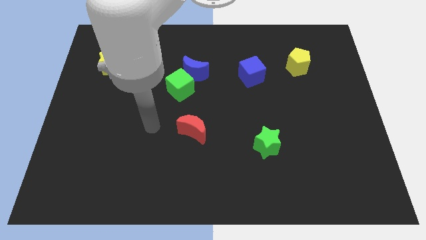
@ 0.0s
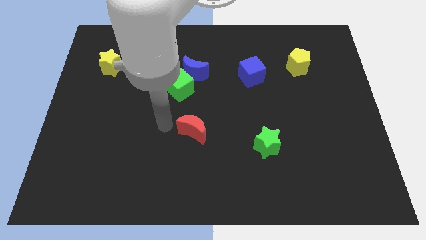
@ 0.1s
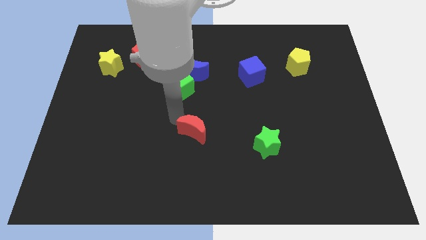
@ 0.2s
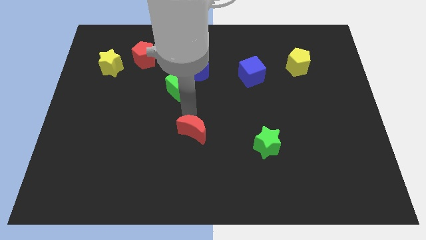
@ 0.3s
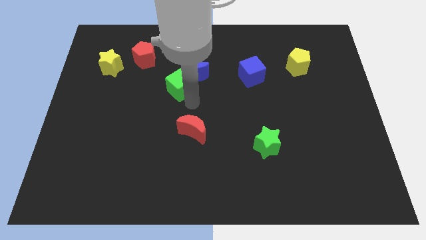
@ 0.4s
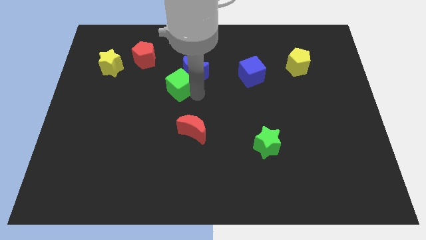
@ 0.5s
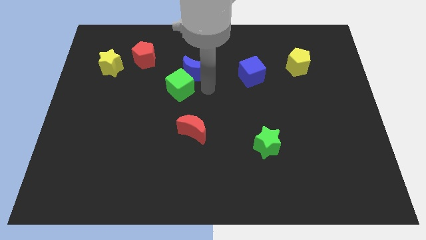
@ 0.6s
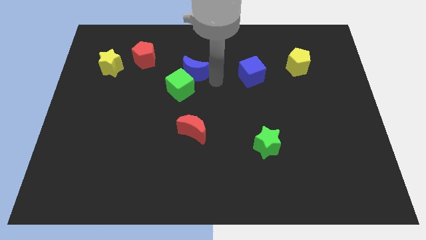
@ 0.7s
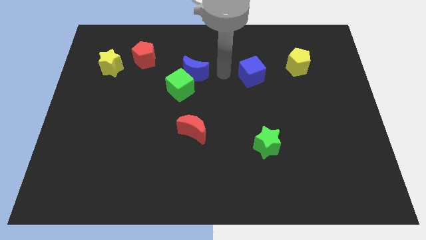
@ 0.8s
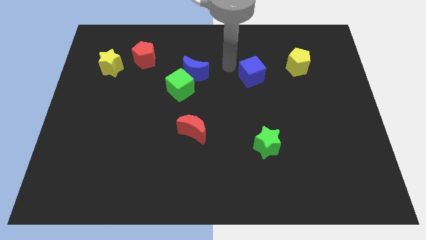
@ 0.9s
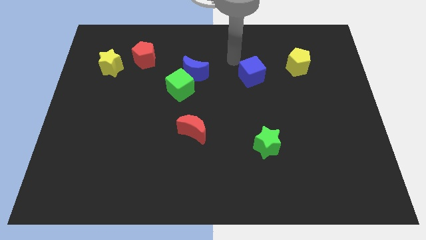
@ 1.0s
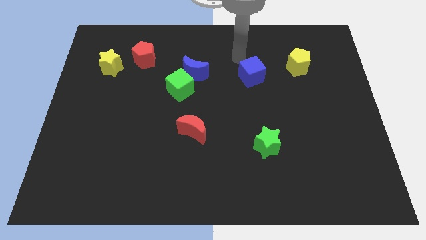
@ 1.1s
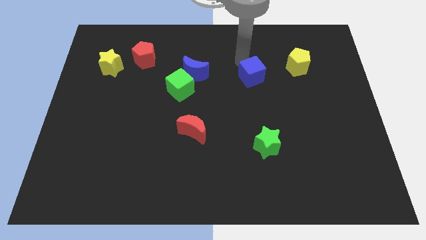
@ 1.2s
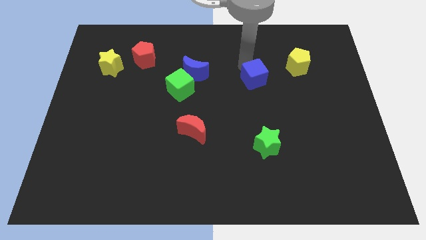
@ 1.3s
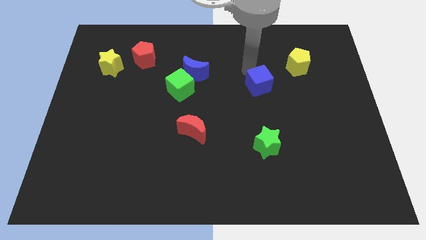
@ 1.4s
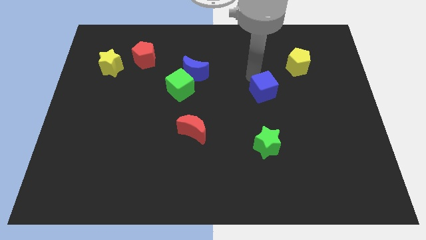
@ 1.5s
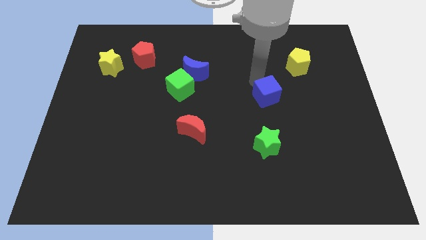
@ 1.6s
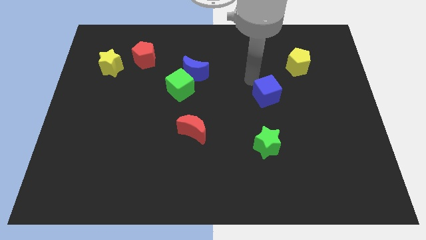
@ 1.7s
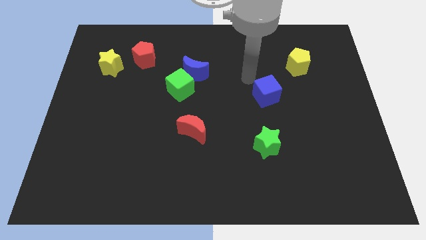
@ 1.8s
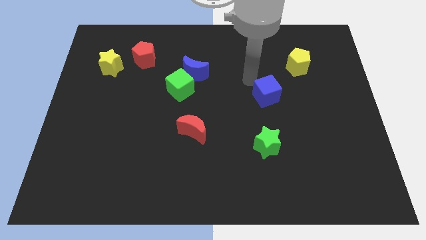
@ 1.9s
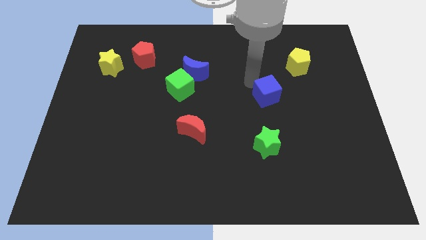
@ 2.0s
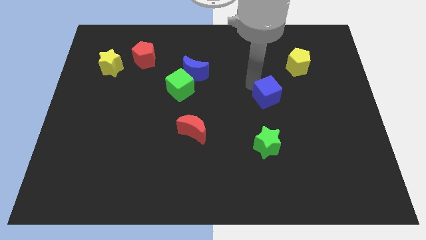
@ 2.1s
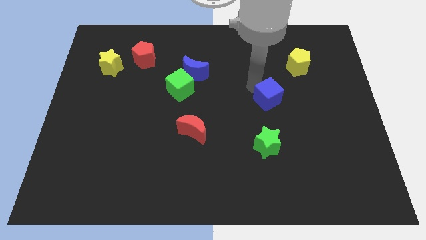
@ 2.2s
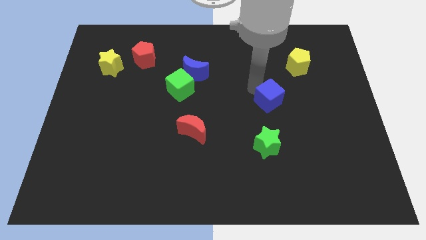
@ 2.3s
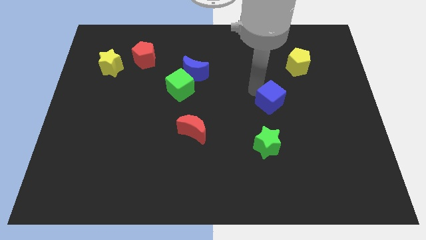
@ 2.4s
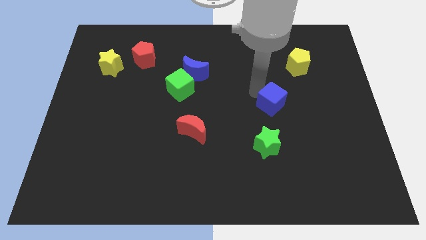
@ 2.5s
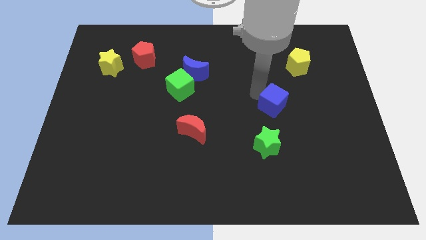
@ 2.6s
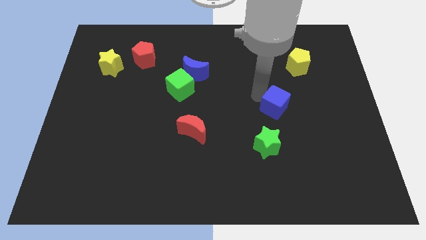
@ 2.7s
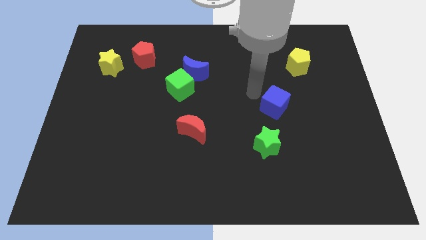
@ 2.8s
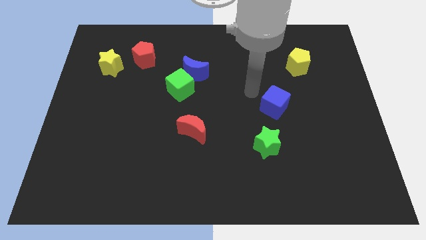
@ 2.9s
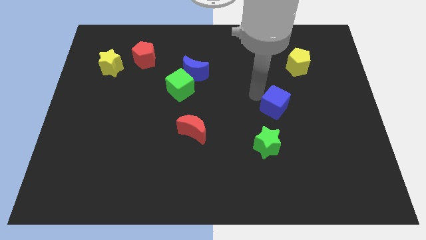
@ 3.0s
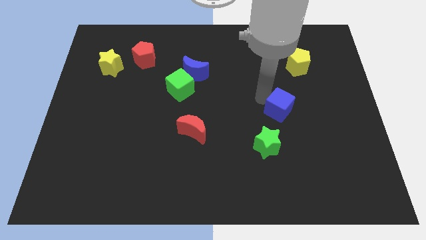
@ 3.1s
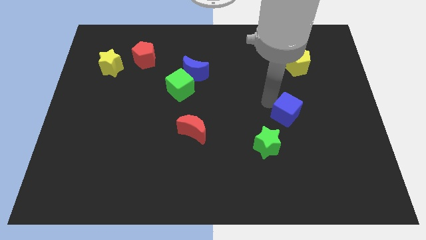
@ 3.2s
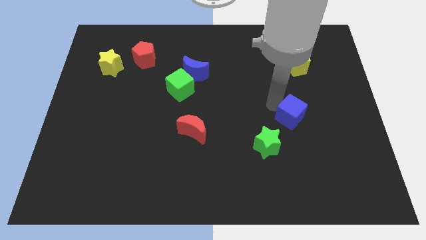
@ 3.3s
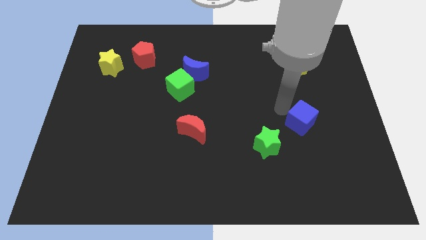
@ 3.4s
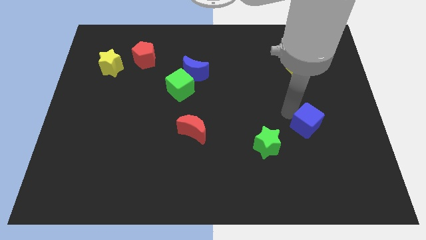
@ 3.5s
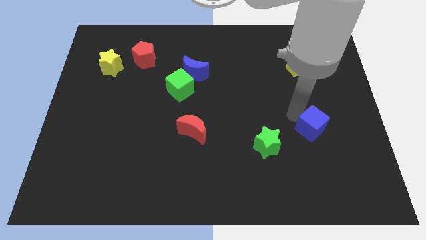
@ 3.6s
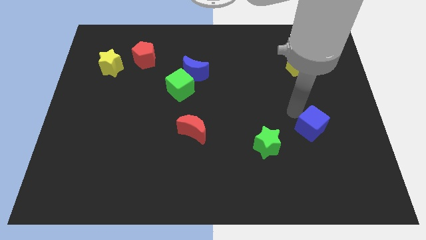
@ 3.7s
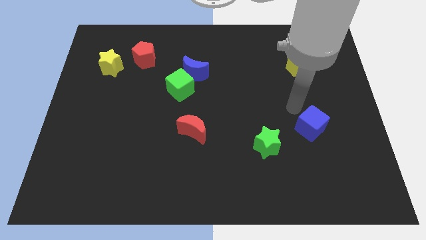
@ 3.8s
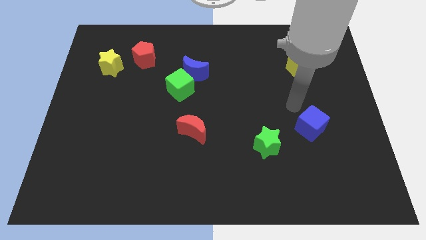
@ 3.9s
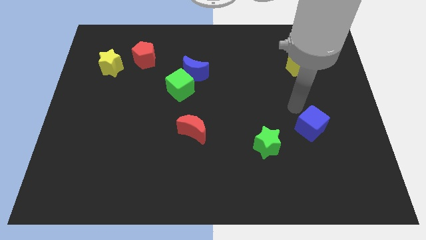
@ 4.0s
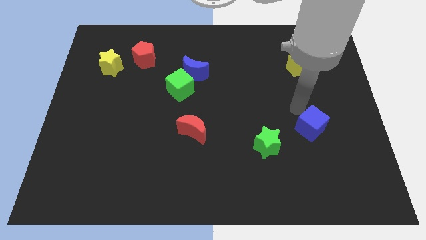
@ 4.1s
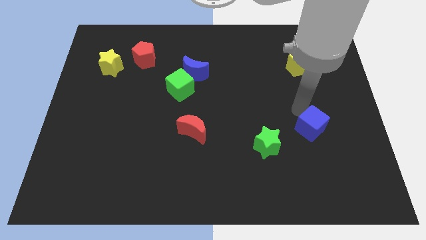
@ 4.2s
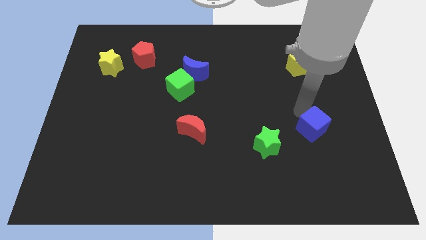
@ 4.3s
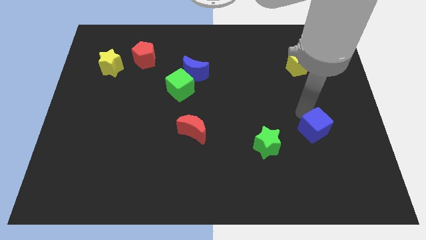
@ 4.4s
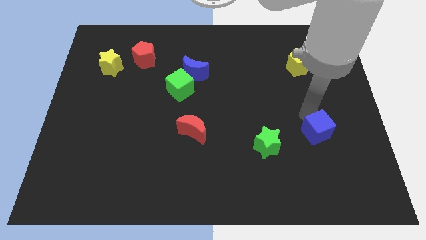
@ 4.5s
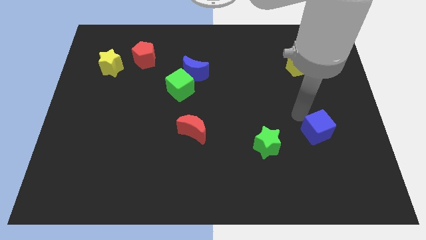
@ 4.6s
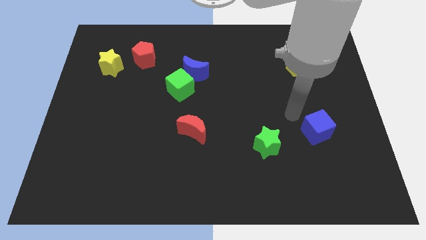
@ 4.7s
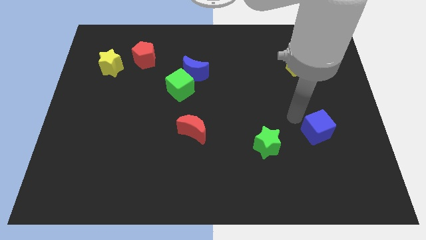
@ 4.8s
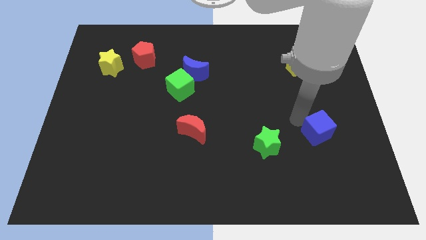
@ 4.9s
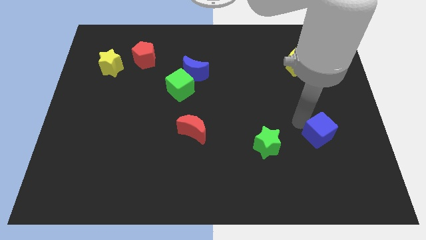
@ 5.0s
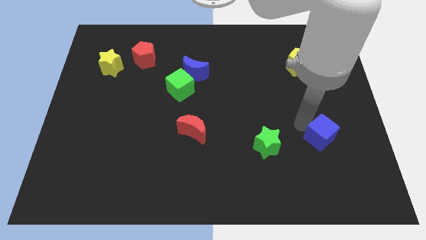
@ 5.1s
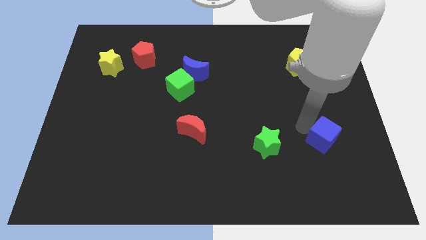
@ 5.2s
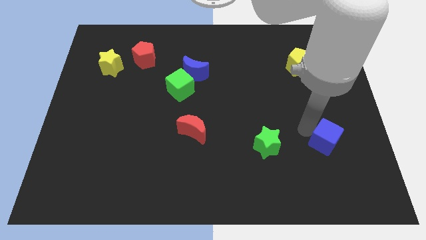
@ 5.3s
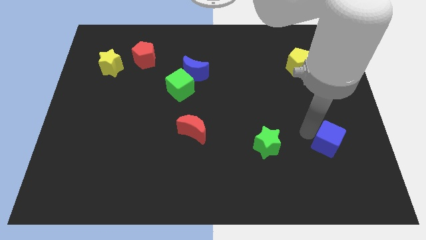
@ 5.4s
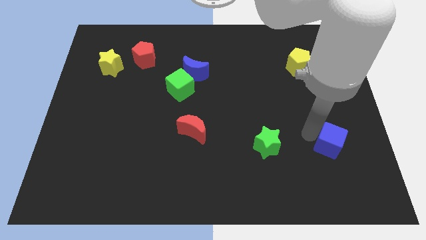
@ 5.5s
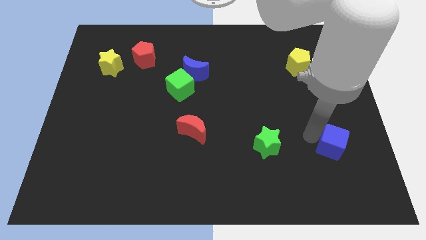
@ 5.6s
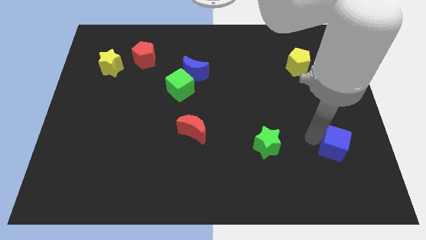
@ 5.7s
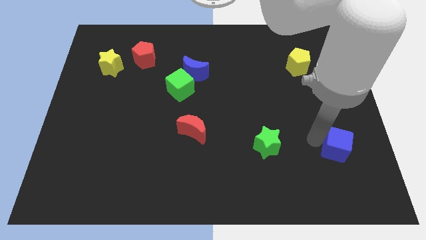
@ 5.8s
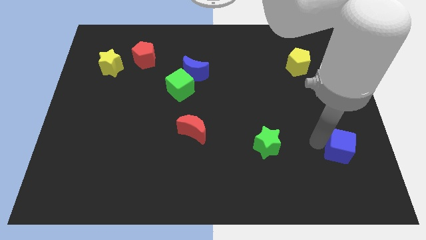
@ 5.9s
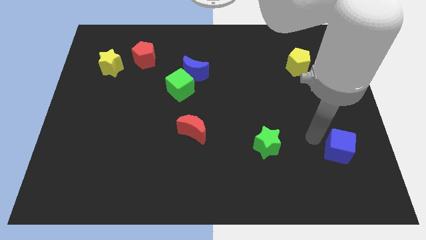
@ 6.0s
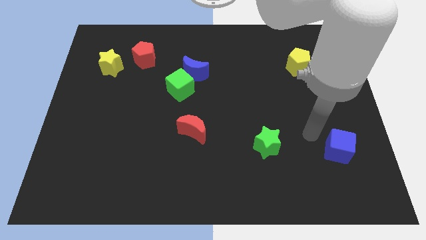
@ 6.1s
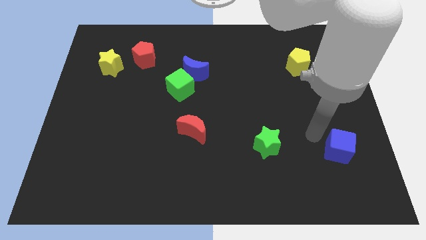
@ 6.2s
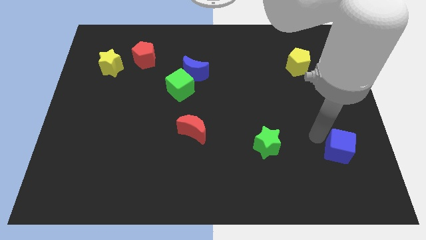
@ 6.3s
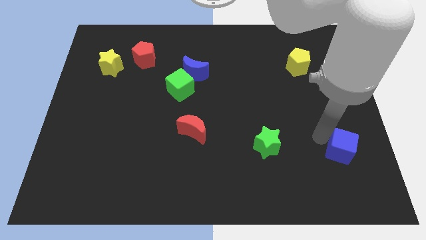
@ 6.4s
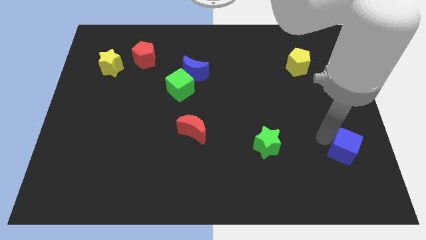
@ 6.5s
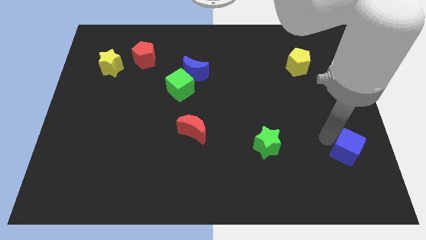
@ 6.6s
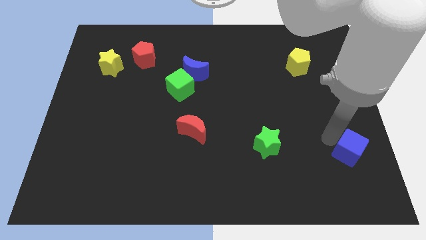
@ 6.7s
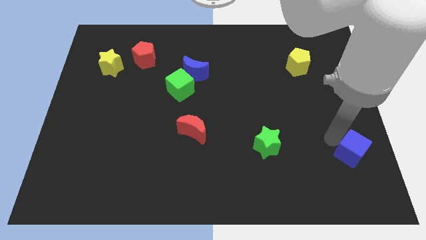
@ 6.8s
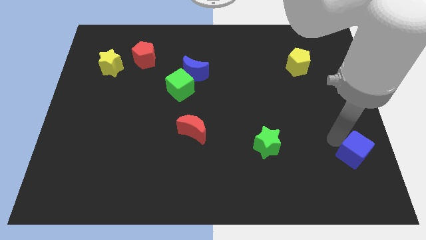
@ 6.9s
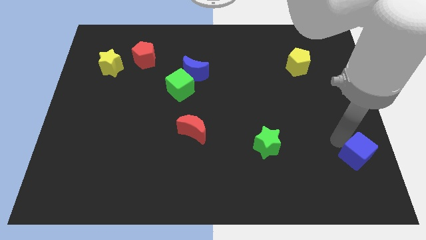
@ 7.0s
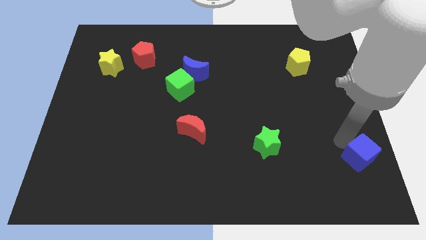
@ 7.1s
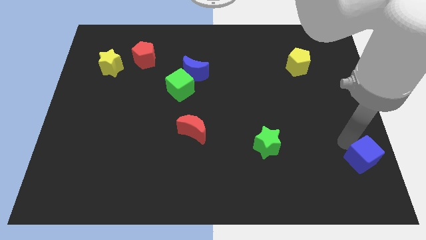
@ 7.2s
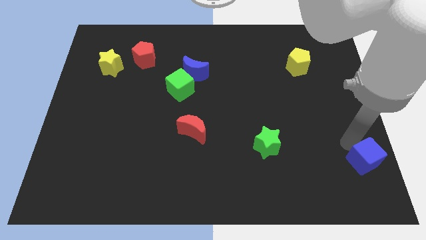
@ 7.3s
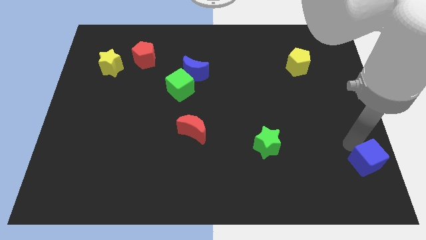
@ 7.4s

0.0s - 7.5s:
push the blue cube to the bottom right of the board
